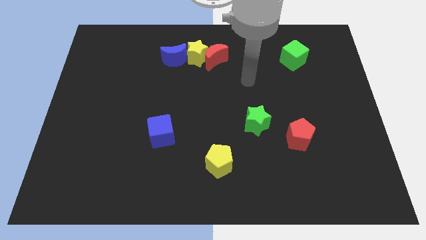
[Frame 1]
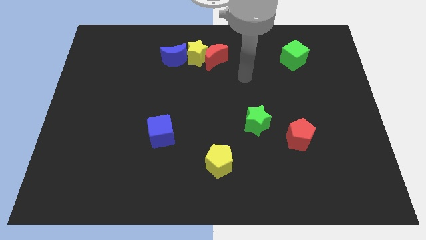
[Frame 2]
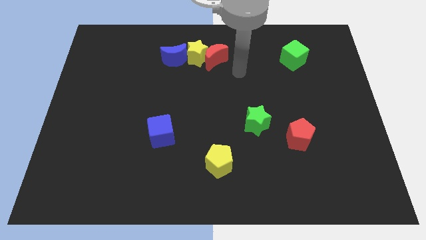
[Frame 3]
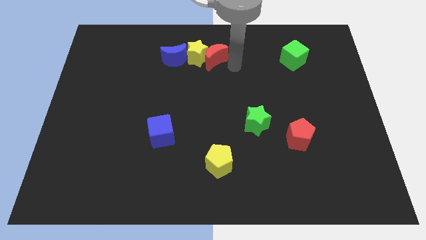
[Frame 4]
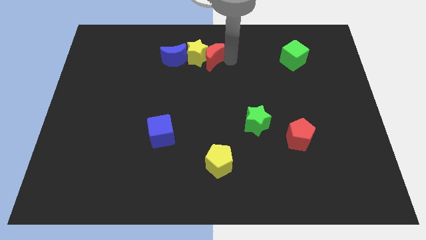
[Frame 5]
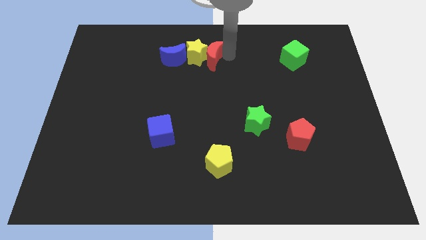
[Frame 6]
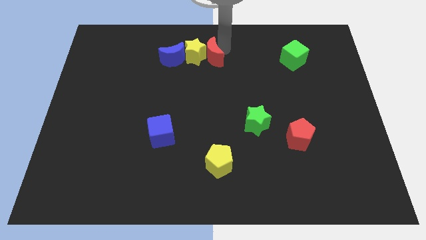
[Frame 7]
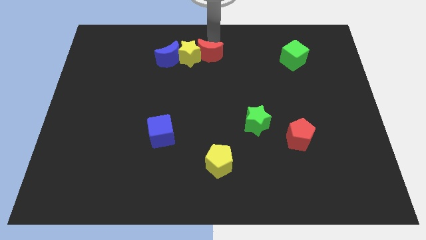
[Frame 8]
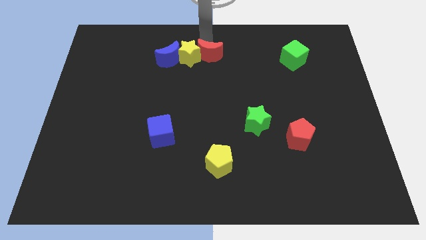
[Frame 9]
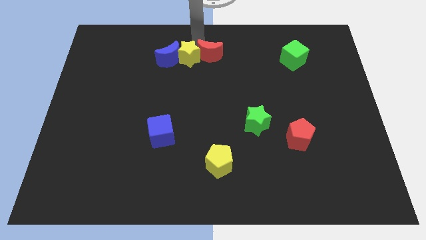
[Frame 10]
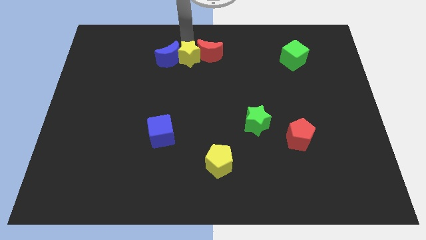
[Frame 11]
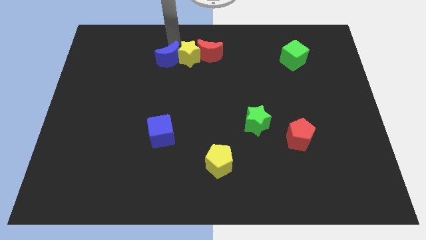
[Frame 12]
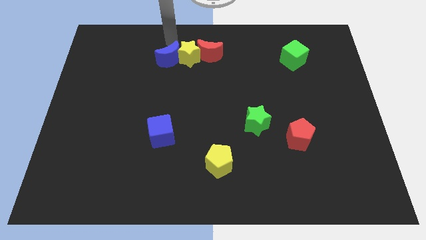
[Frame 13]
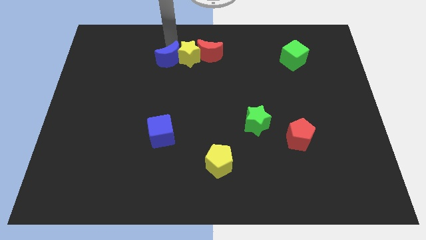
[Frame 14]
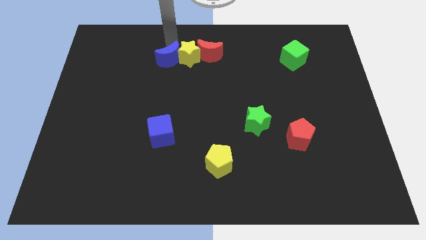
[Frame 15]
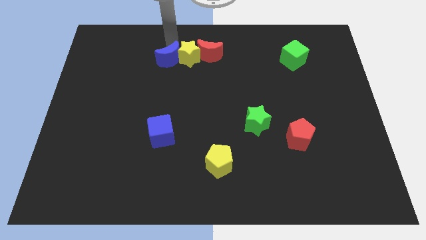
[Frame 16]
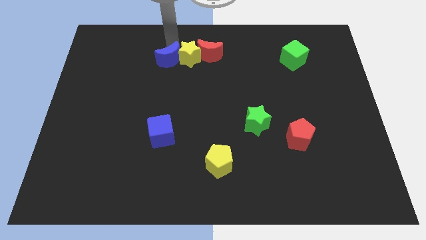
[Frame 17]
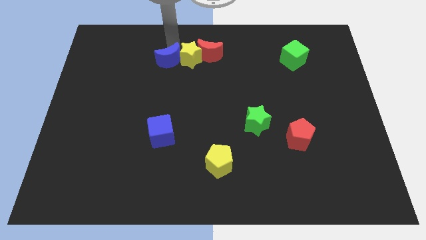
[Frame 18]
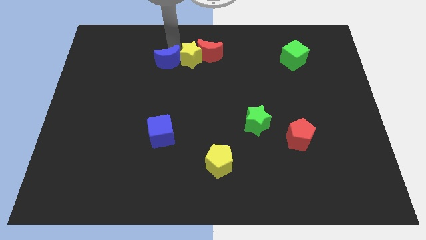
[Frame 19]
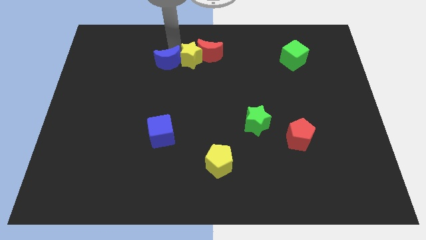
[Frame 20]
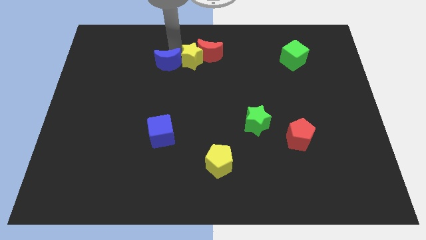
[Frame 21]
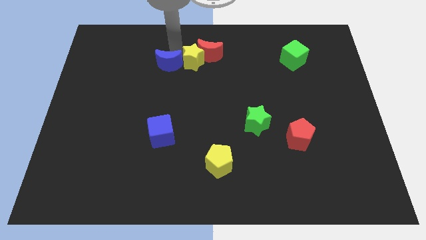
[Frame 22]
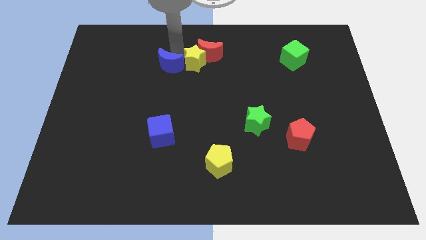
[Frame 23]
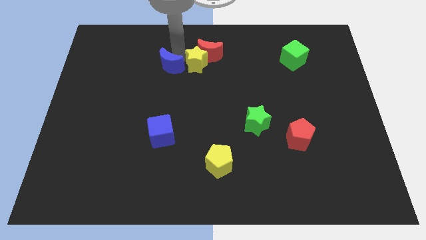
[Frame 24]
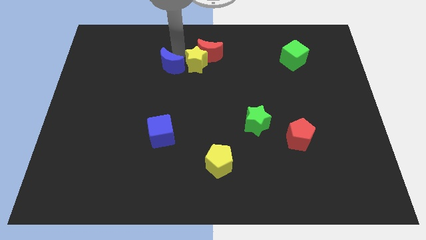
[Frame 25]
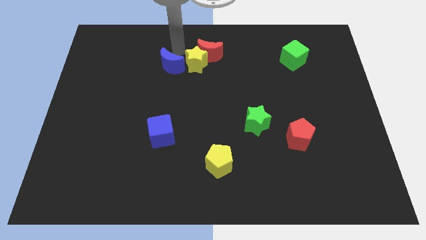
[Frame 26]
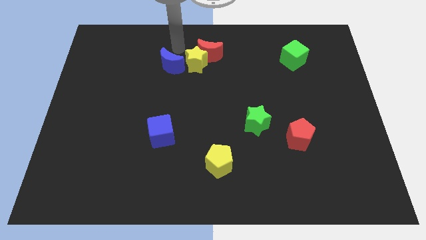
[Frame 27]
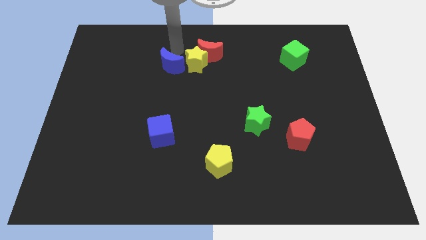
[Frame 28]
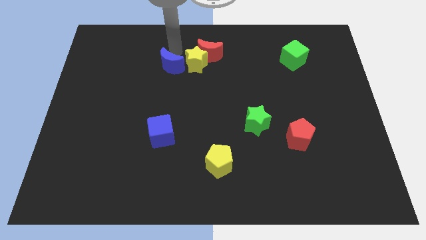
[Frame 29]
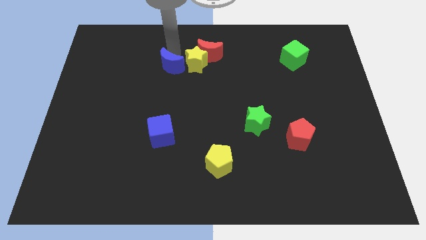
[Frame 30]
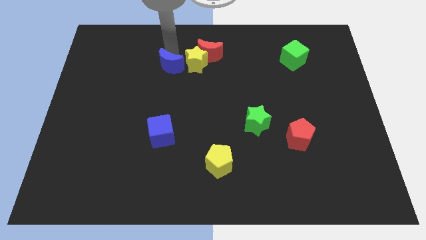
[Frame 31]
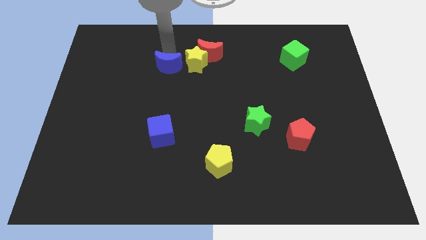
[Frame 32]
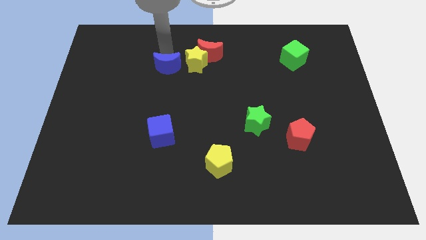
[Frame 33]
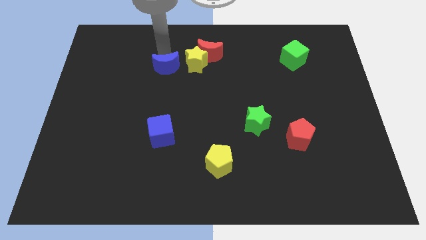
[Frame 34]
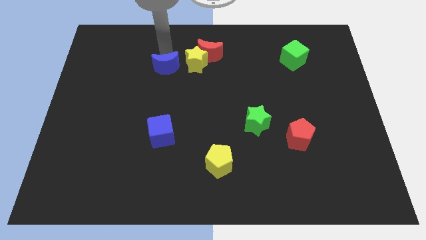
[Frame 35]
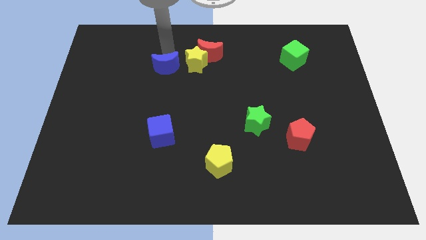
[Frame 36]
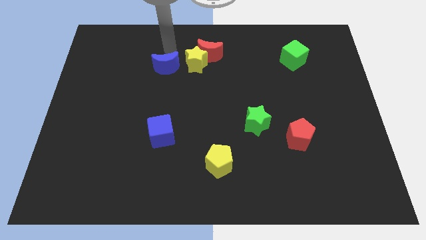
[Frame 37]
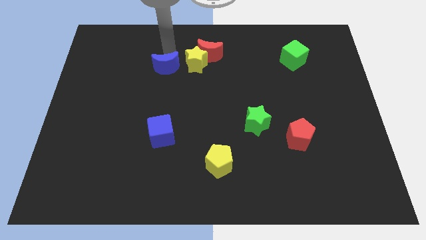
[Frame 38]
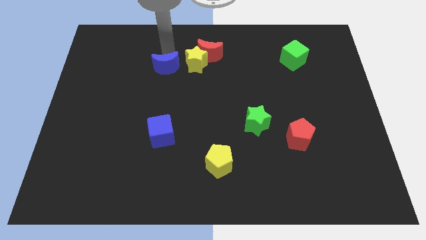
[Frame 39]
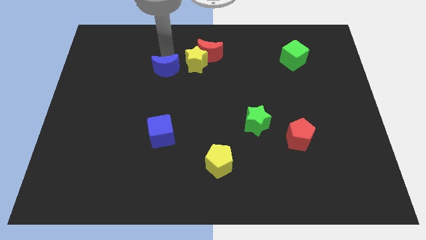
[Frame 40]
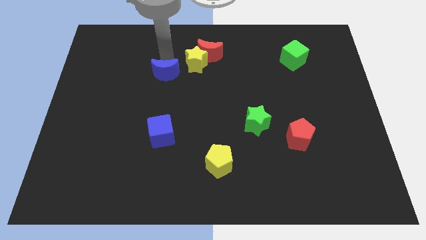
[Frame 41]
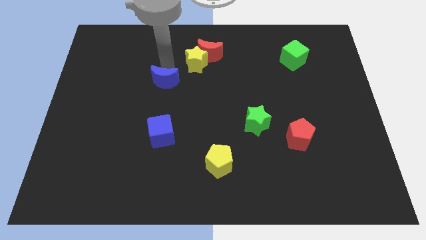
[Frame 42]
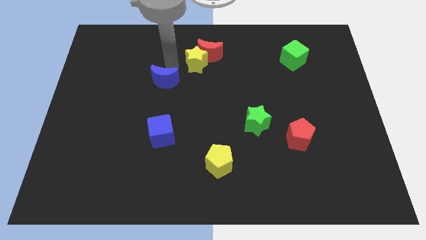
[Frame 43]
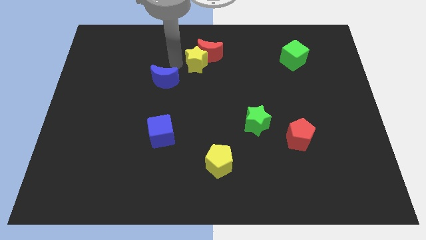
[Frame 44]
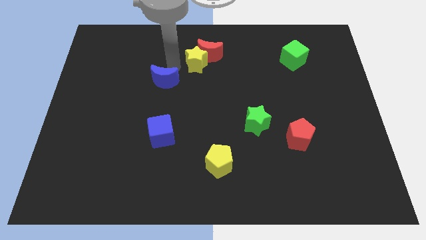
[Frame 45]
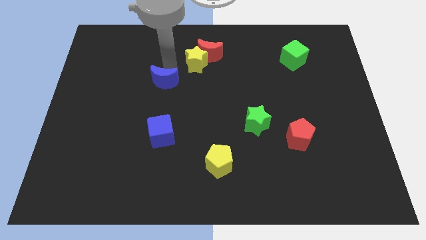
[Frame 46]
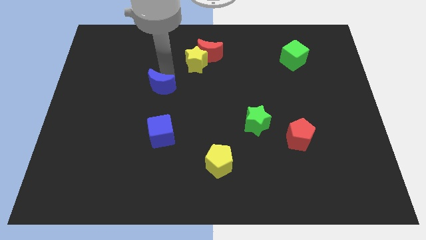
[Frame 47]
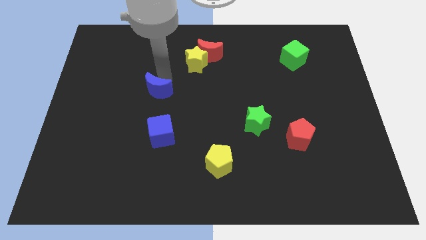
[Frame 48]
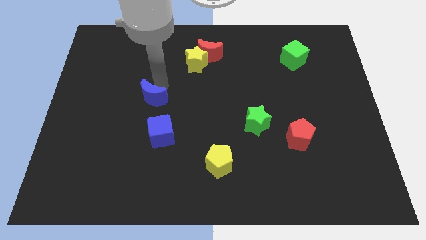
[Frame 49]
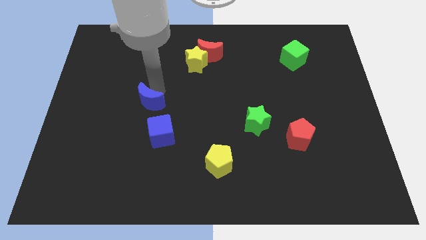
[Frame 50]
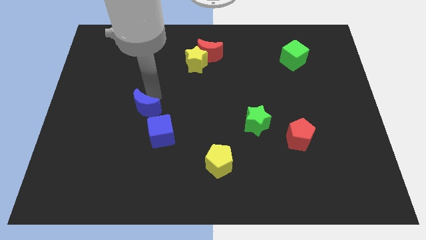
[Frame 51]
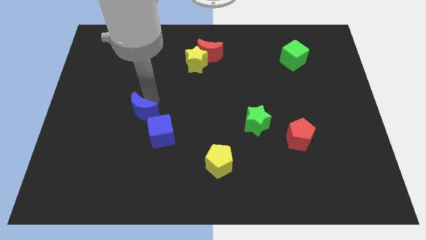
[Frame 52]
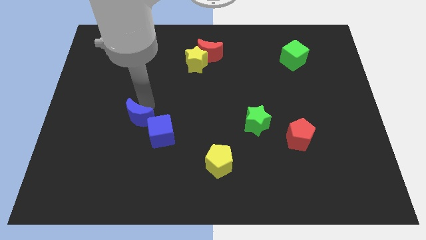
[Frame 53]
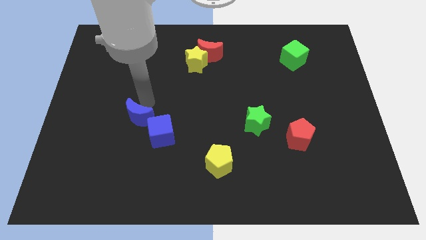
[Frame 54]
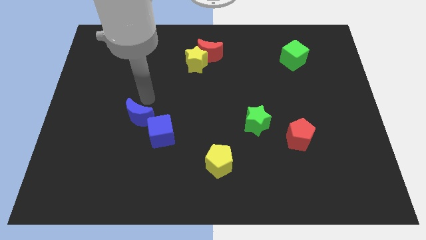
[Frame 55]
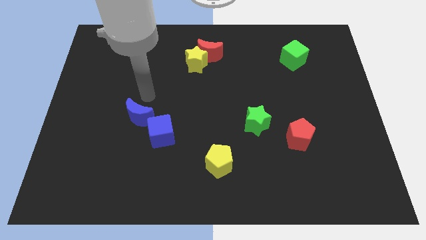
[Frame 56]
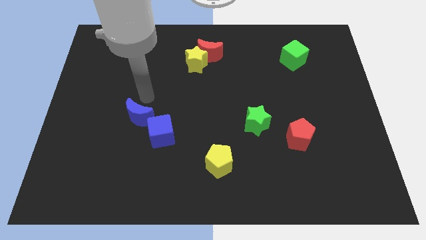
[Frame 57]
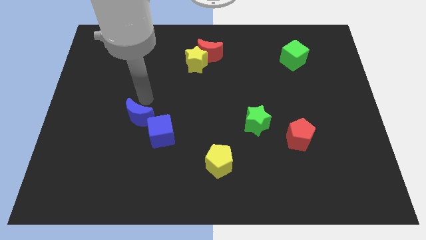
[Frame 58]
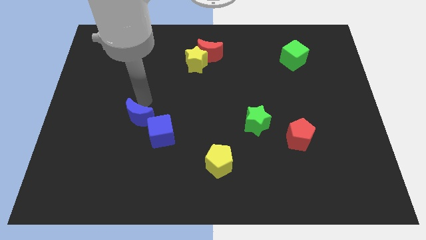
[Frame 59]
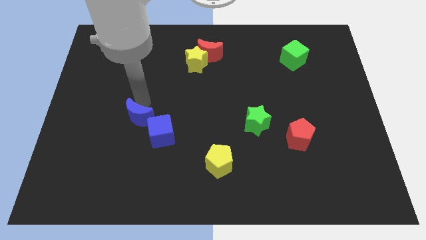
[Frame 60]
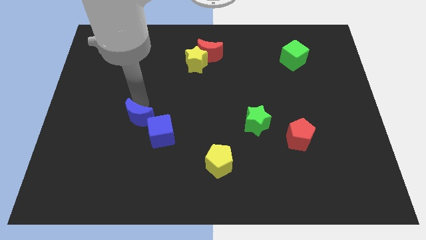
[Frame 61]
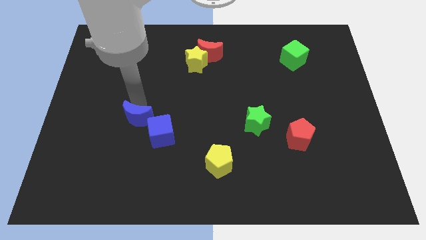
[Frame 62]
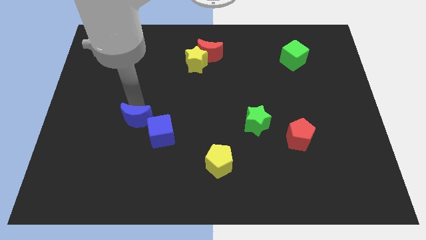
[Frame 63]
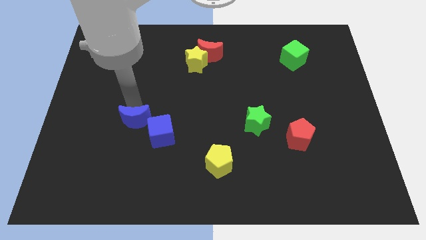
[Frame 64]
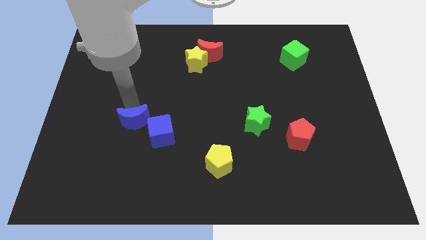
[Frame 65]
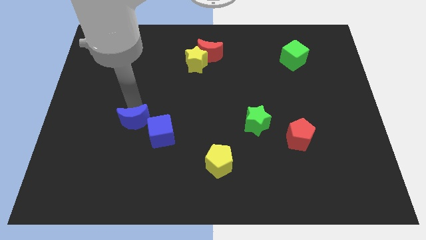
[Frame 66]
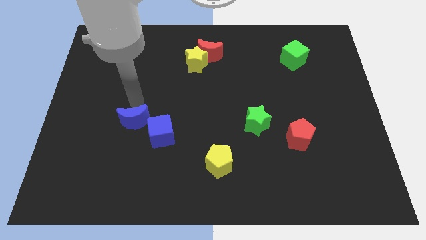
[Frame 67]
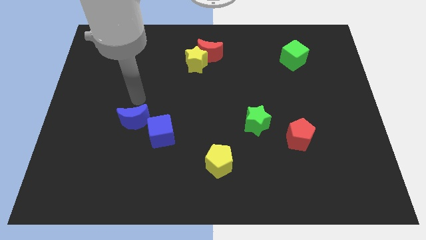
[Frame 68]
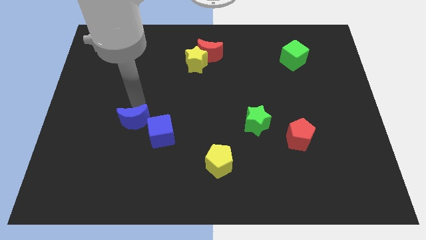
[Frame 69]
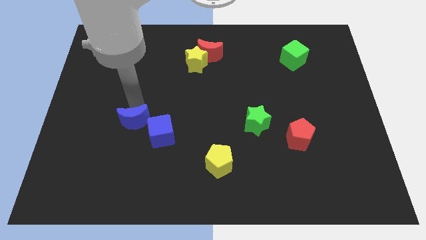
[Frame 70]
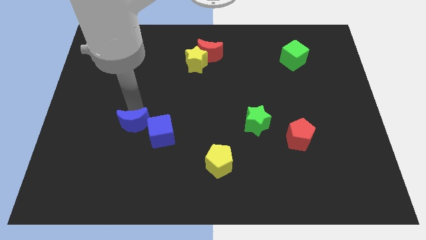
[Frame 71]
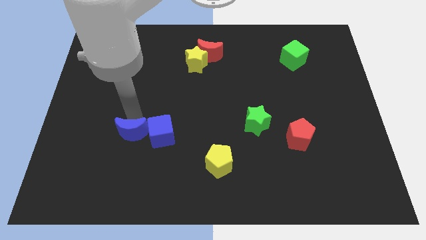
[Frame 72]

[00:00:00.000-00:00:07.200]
move the blue moon diagonally down and to the left of the blue cube

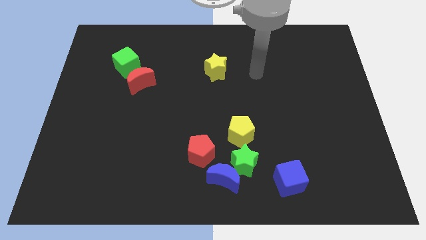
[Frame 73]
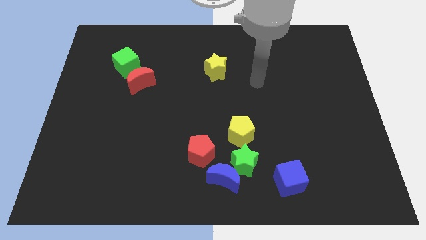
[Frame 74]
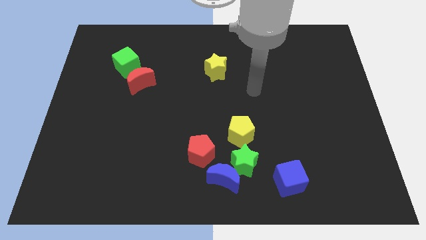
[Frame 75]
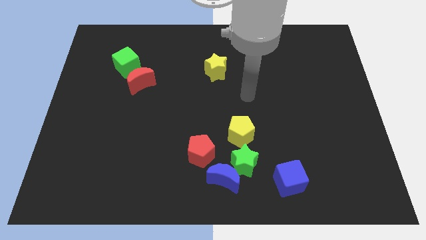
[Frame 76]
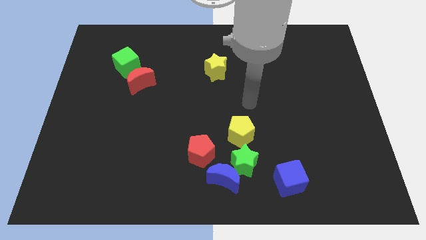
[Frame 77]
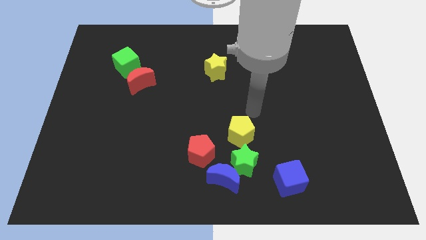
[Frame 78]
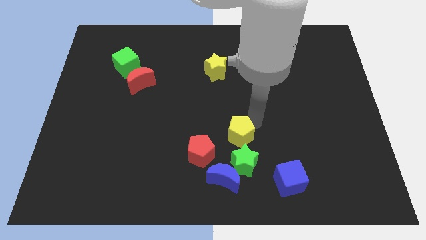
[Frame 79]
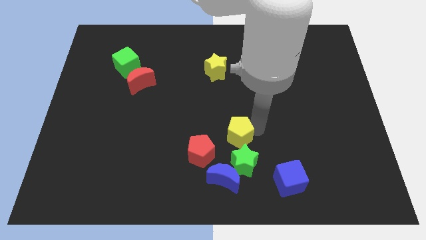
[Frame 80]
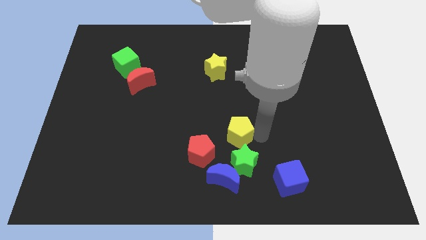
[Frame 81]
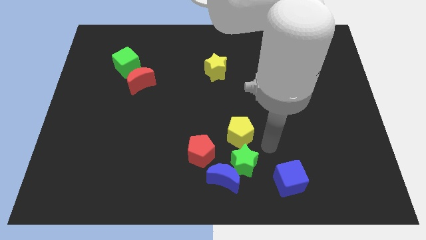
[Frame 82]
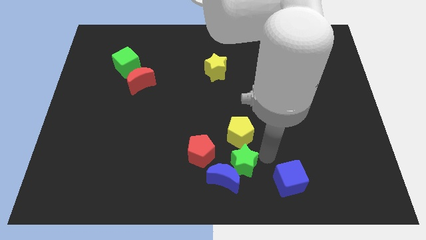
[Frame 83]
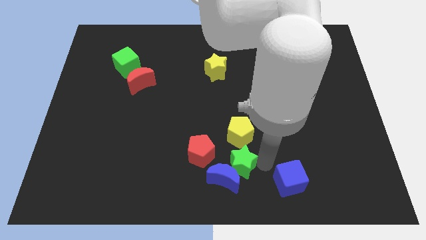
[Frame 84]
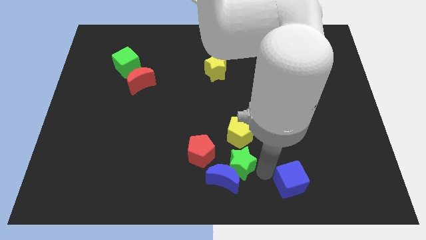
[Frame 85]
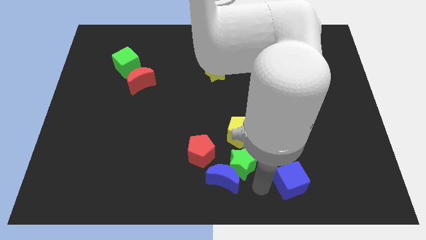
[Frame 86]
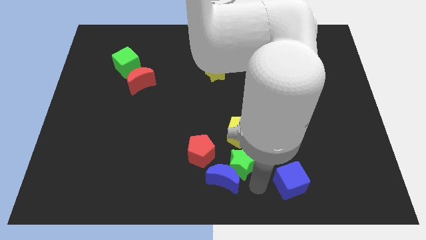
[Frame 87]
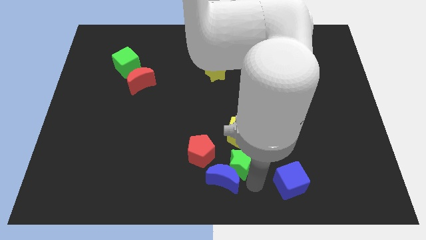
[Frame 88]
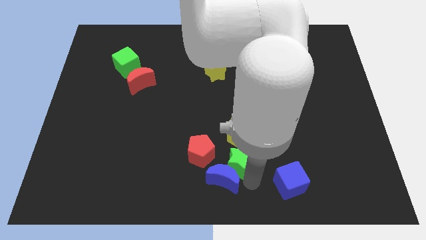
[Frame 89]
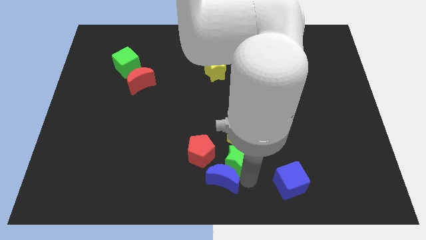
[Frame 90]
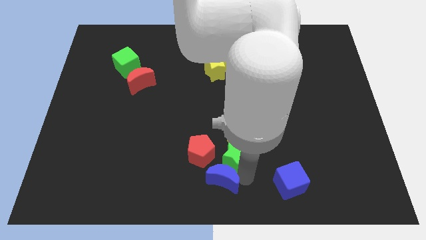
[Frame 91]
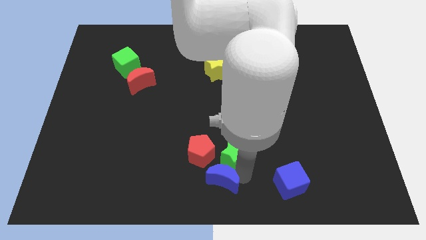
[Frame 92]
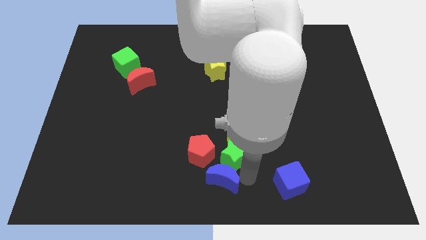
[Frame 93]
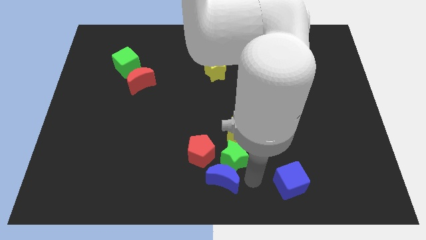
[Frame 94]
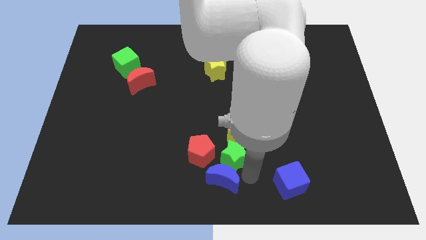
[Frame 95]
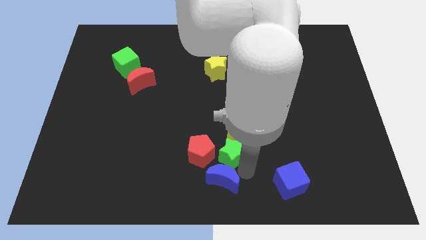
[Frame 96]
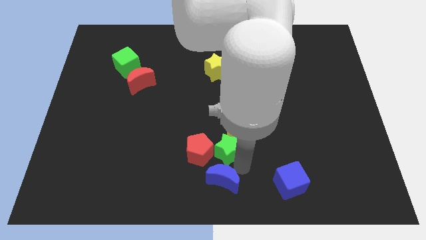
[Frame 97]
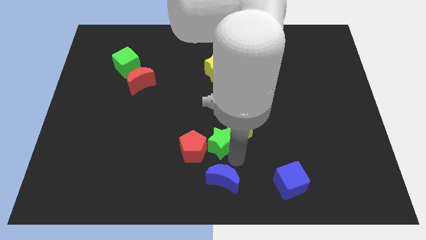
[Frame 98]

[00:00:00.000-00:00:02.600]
push the green star to the left side of the yellow pentagon
